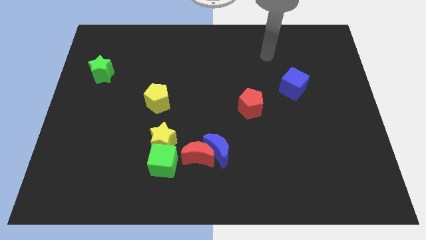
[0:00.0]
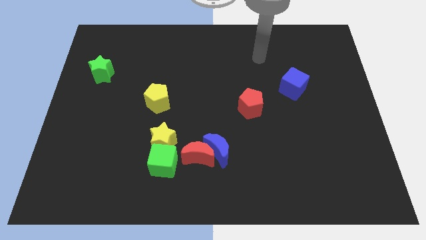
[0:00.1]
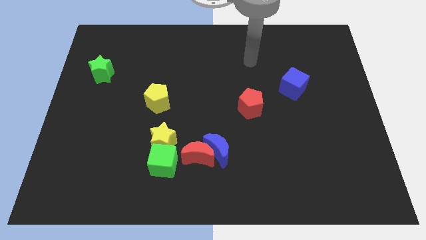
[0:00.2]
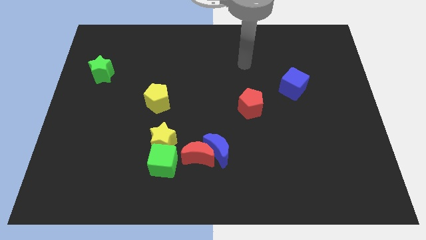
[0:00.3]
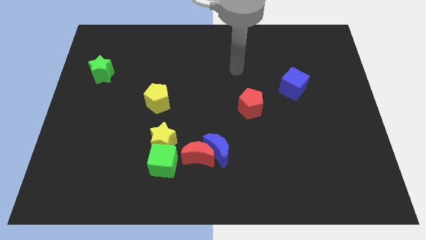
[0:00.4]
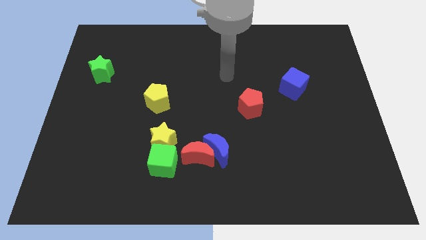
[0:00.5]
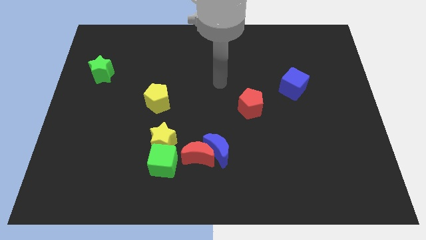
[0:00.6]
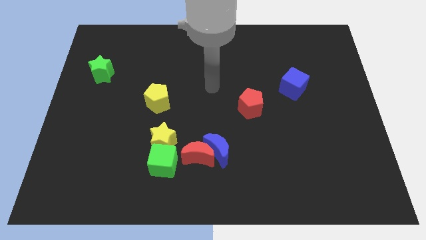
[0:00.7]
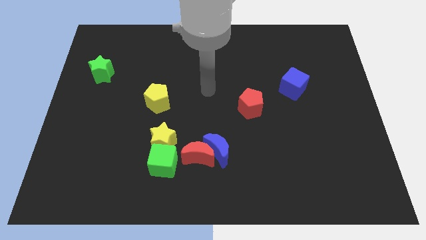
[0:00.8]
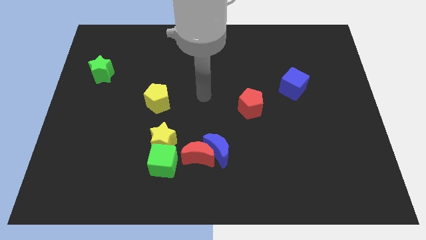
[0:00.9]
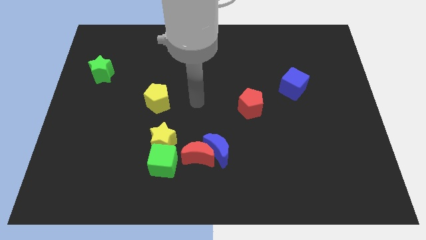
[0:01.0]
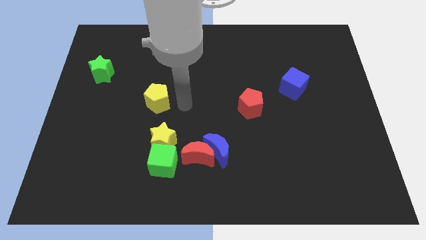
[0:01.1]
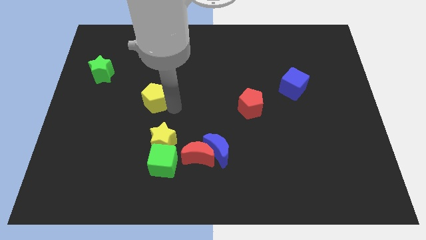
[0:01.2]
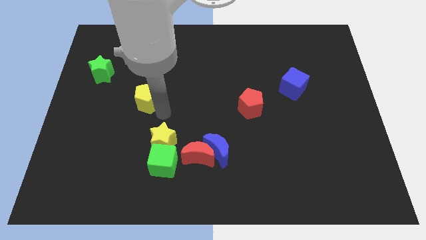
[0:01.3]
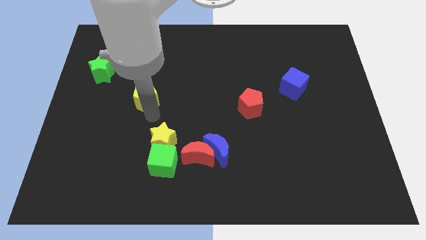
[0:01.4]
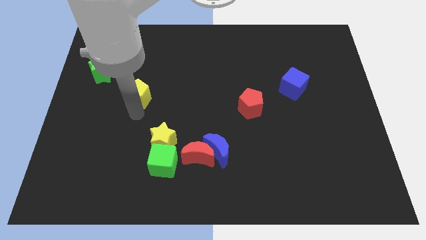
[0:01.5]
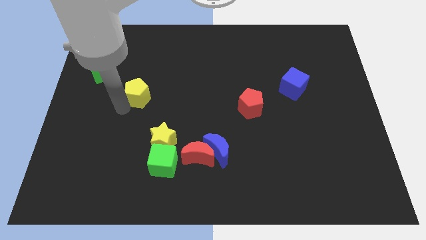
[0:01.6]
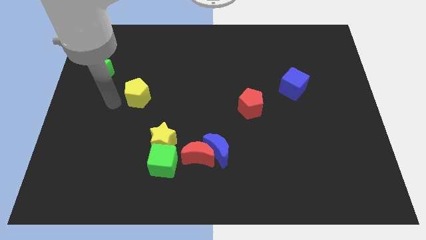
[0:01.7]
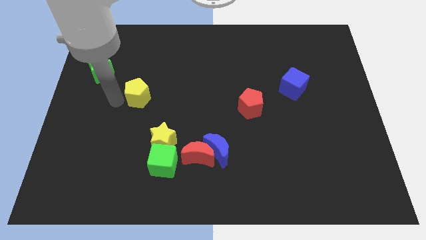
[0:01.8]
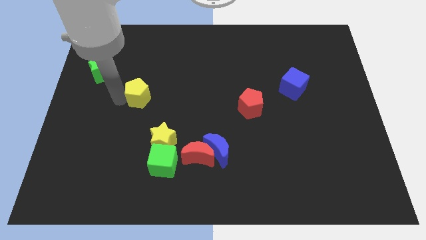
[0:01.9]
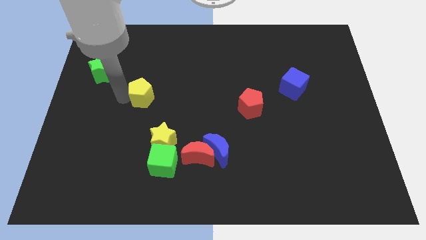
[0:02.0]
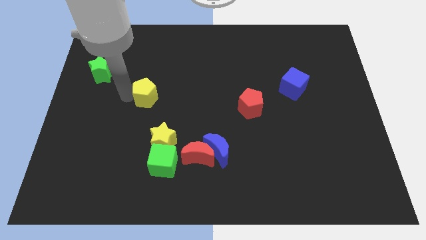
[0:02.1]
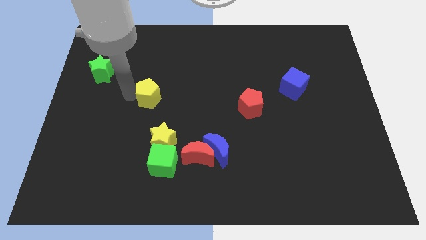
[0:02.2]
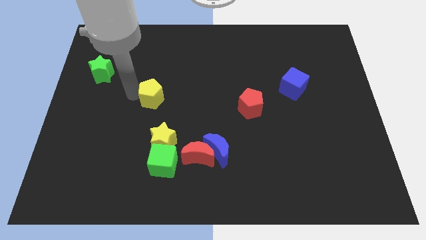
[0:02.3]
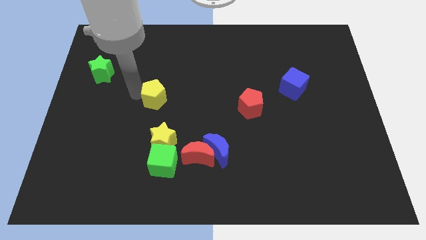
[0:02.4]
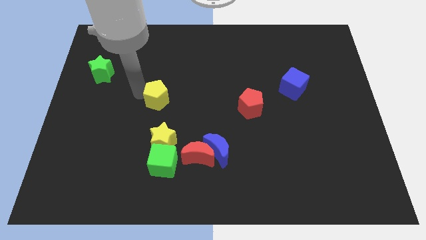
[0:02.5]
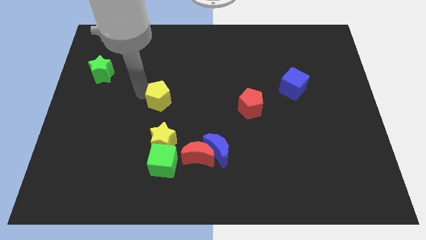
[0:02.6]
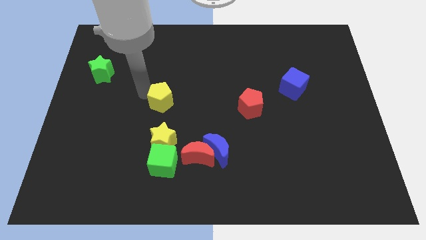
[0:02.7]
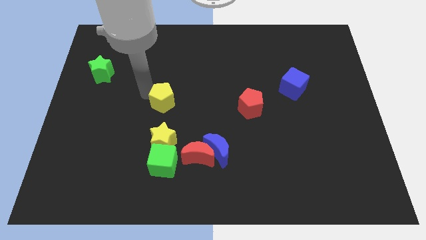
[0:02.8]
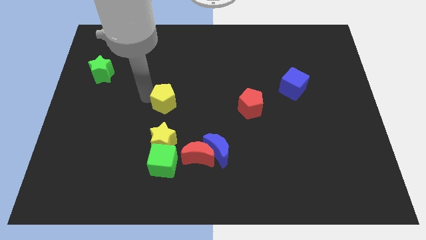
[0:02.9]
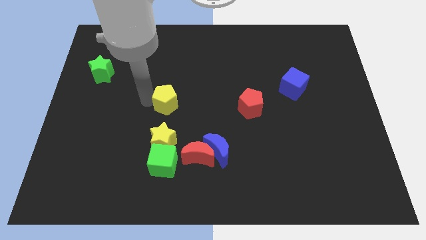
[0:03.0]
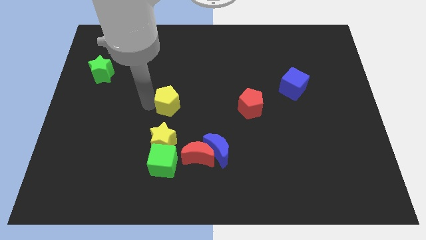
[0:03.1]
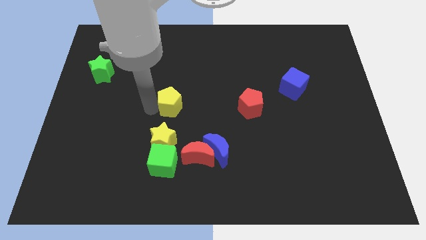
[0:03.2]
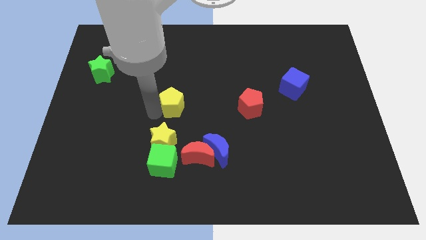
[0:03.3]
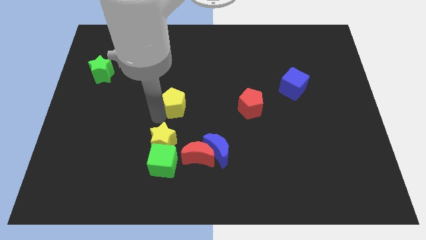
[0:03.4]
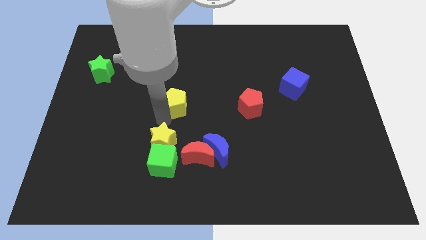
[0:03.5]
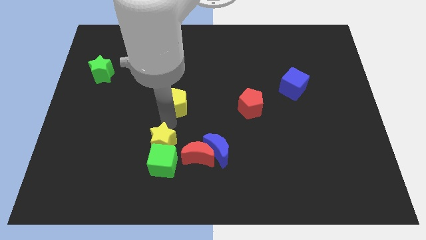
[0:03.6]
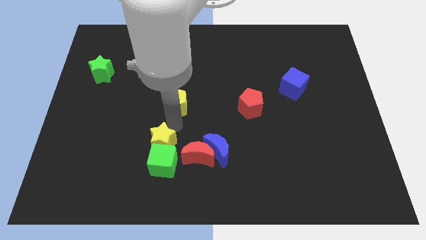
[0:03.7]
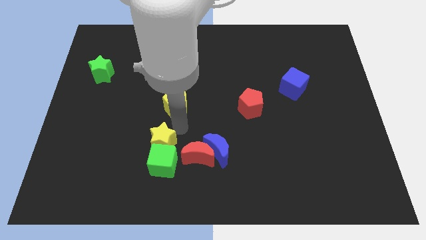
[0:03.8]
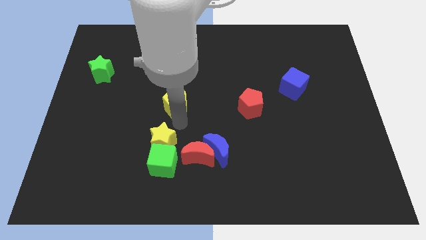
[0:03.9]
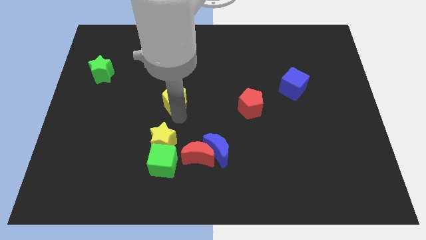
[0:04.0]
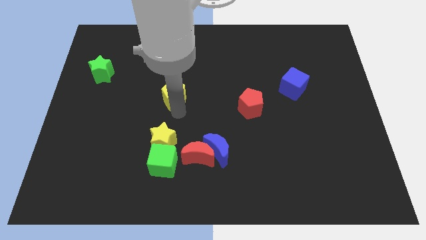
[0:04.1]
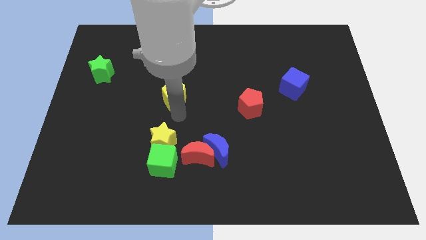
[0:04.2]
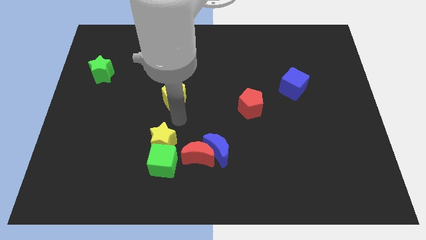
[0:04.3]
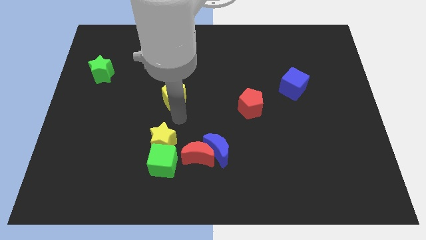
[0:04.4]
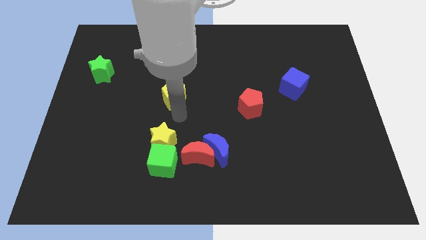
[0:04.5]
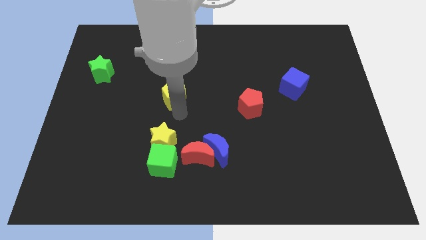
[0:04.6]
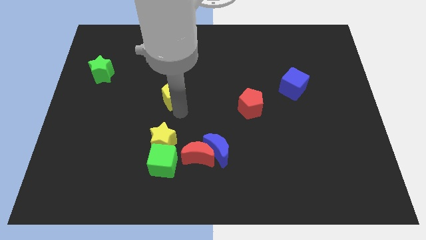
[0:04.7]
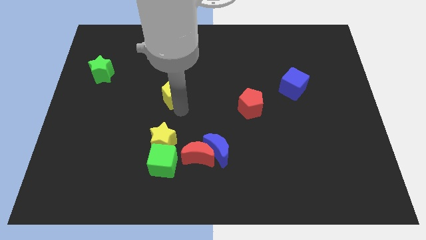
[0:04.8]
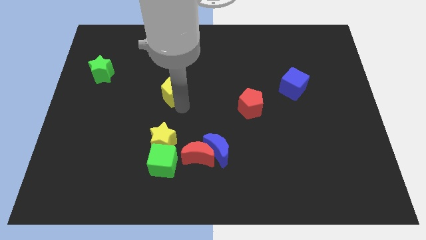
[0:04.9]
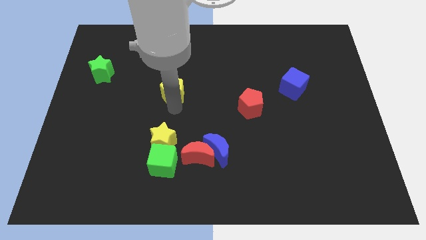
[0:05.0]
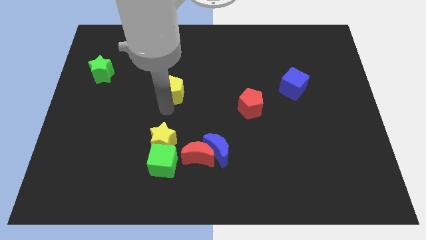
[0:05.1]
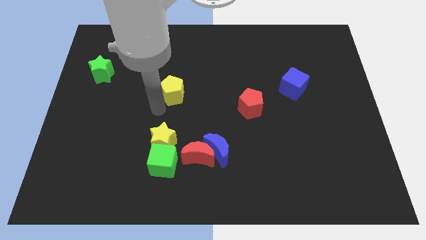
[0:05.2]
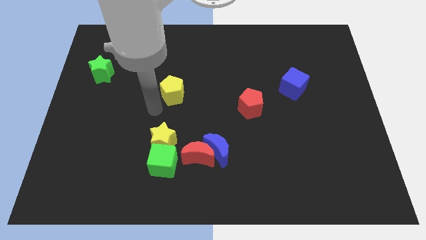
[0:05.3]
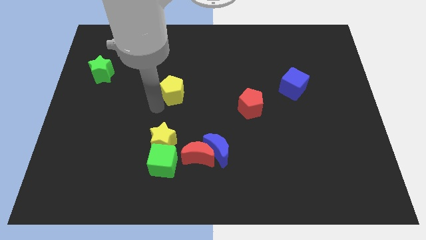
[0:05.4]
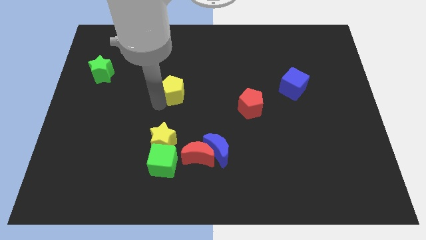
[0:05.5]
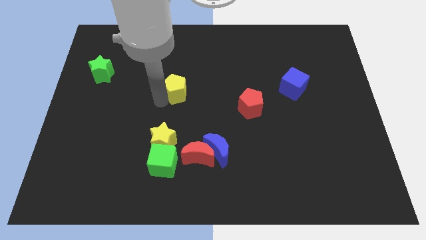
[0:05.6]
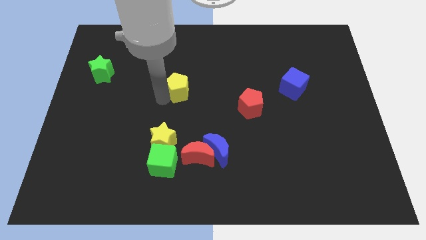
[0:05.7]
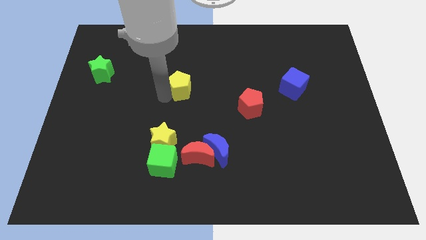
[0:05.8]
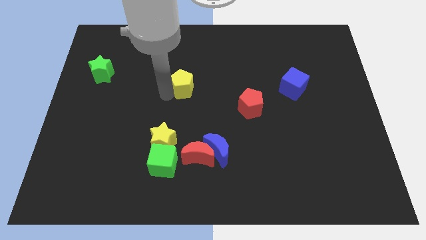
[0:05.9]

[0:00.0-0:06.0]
move the yellow pentagon up and then right a bit

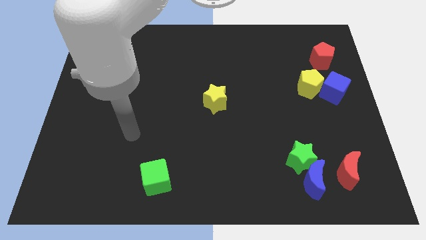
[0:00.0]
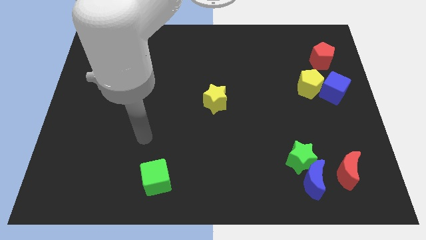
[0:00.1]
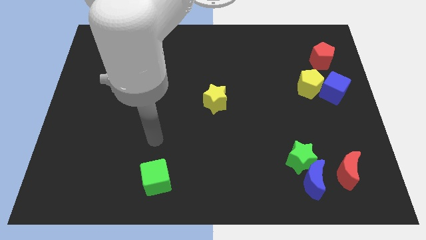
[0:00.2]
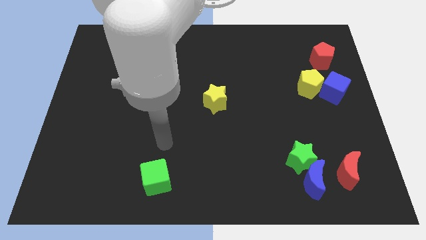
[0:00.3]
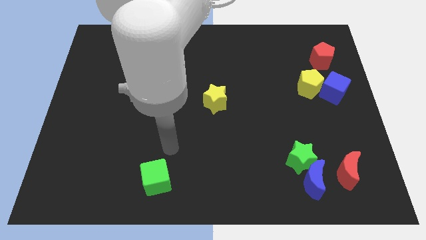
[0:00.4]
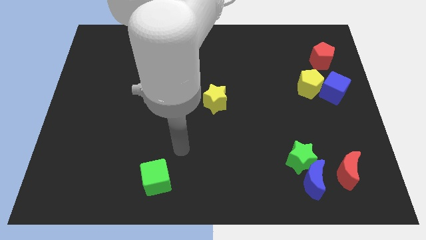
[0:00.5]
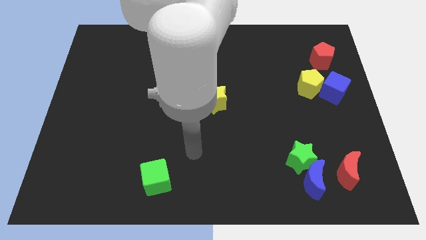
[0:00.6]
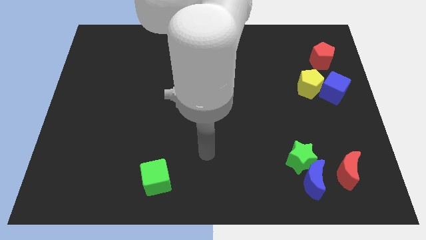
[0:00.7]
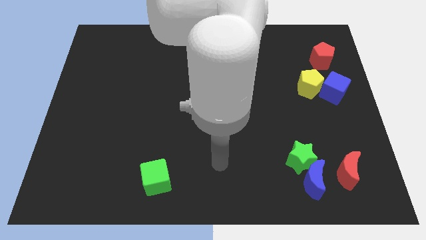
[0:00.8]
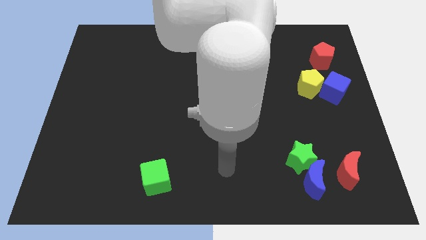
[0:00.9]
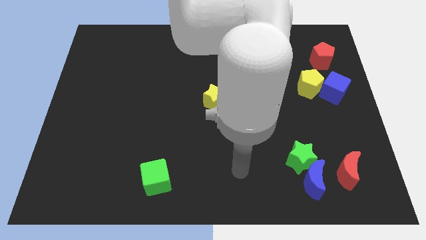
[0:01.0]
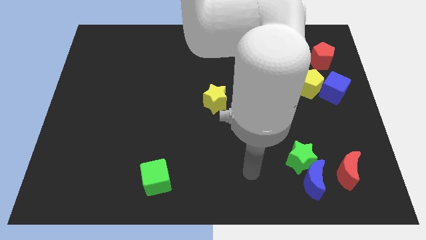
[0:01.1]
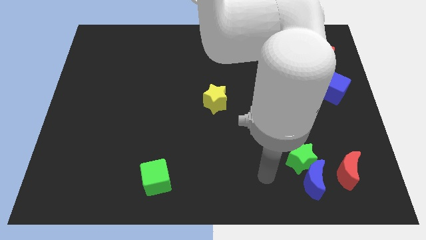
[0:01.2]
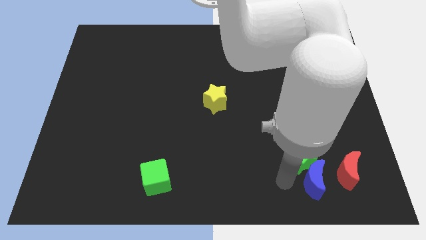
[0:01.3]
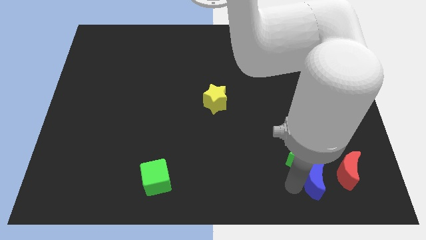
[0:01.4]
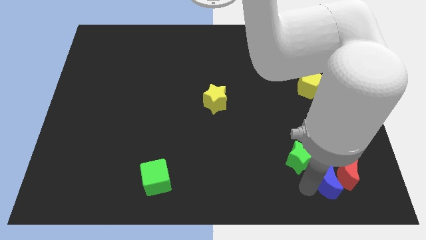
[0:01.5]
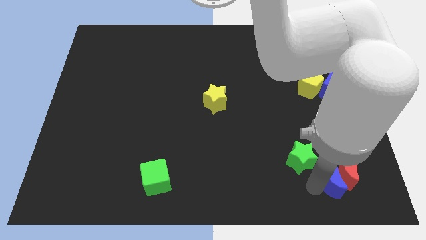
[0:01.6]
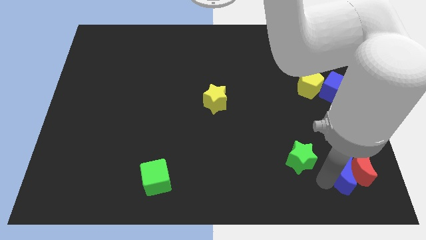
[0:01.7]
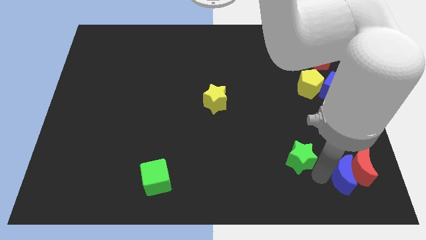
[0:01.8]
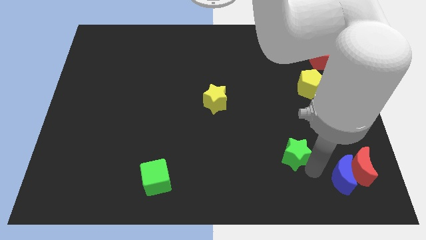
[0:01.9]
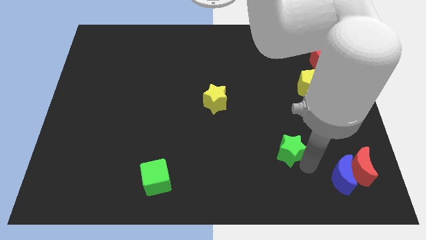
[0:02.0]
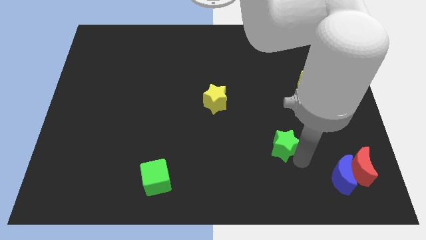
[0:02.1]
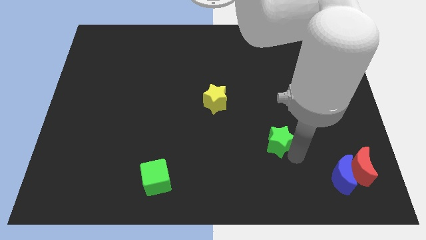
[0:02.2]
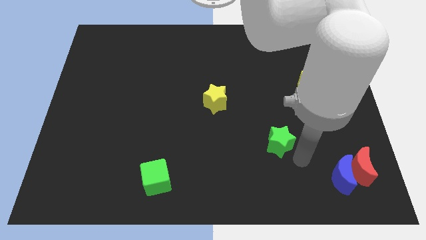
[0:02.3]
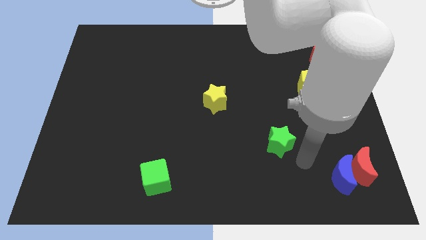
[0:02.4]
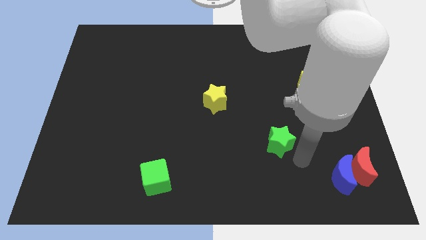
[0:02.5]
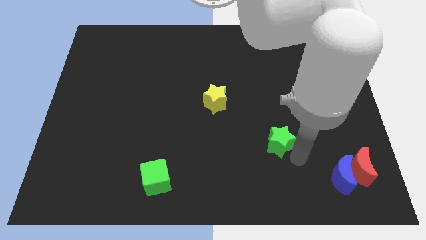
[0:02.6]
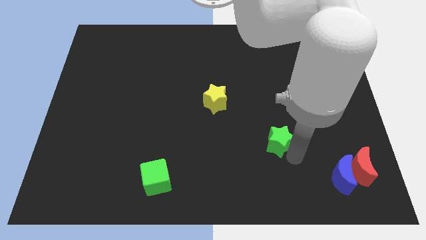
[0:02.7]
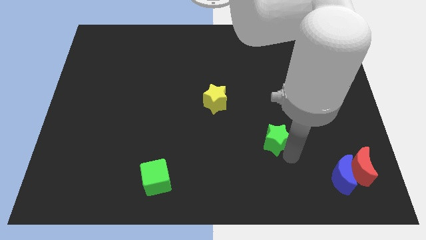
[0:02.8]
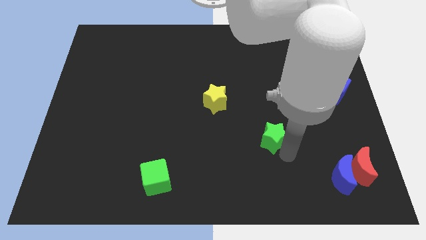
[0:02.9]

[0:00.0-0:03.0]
move the green star diagonally upwards and to the left a little bit
